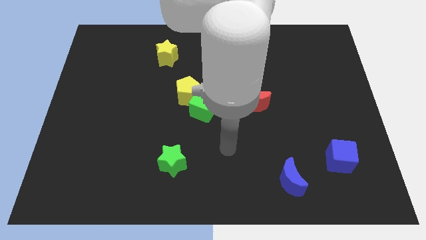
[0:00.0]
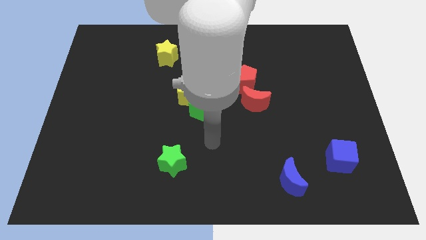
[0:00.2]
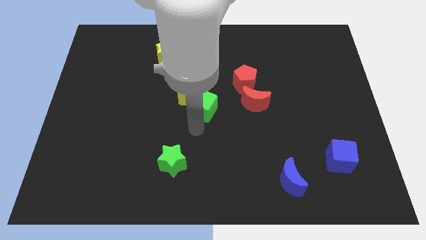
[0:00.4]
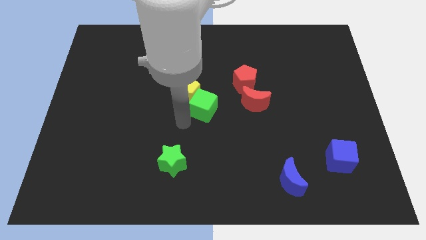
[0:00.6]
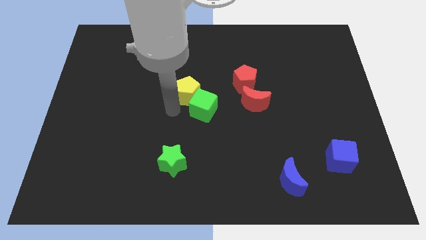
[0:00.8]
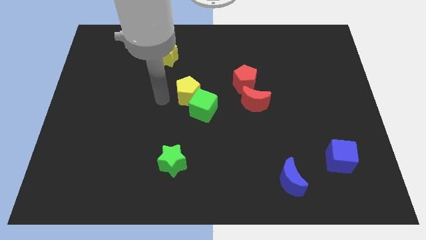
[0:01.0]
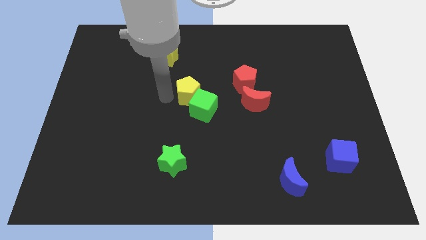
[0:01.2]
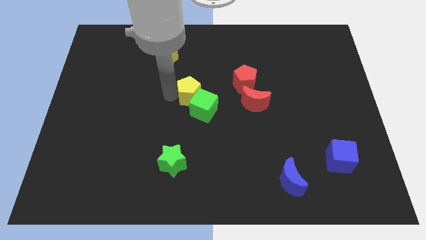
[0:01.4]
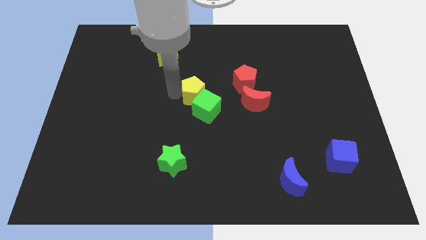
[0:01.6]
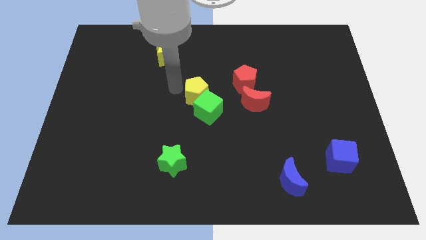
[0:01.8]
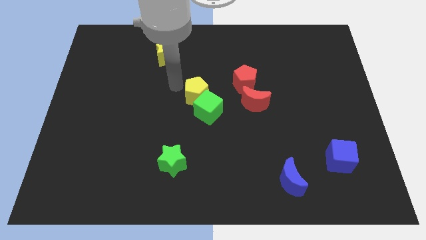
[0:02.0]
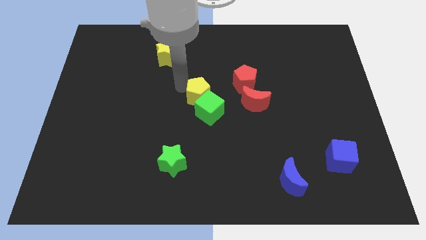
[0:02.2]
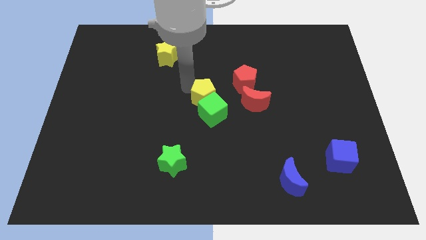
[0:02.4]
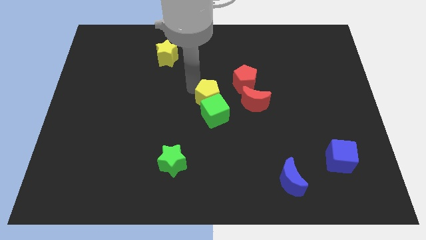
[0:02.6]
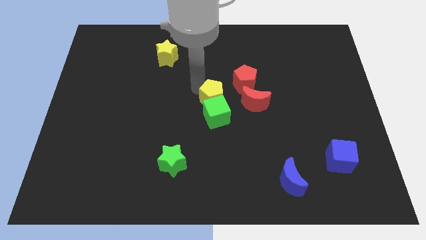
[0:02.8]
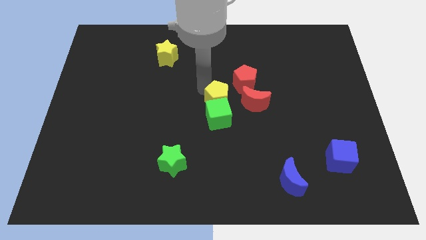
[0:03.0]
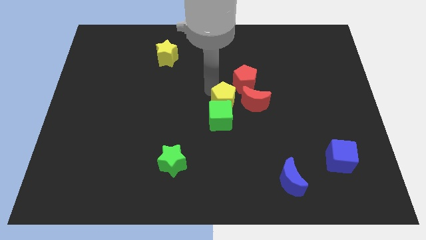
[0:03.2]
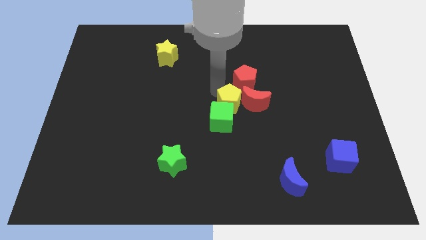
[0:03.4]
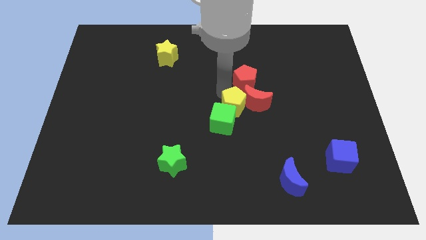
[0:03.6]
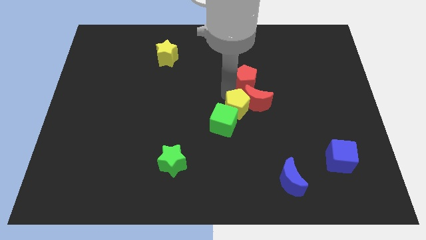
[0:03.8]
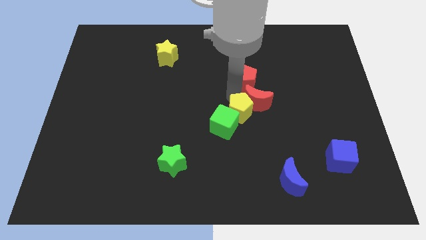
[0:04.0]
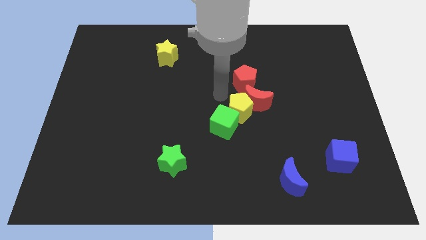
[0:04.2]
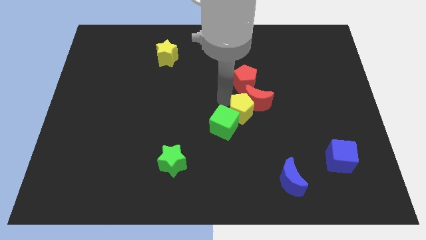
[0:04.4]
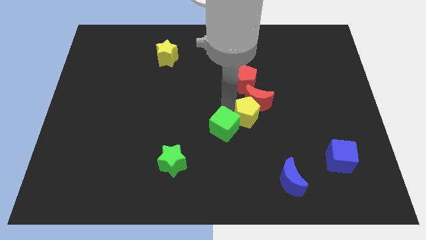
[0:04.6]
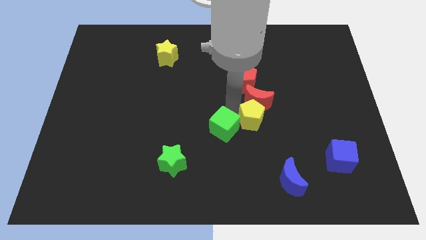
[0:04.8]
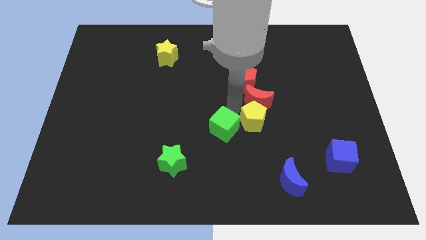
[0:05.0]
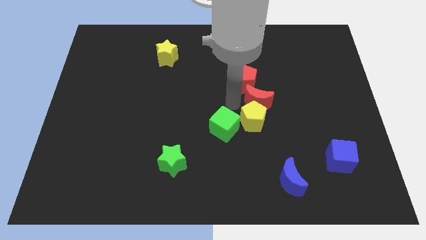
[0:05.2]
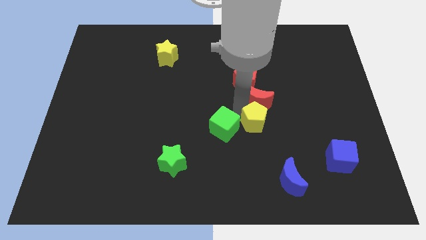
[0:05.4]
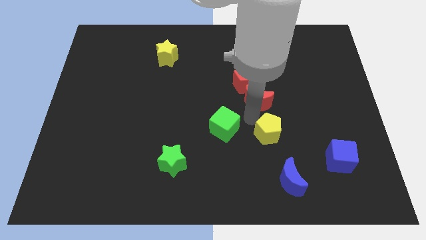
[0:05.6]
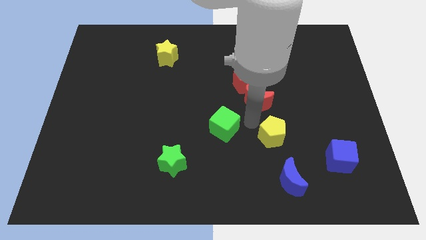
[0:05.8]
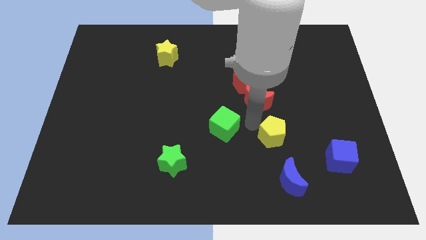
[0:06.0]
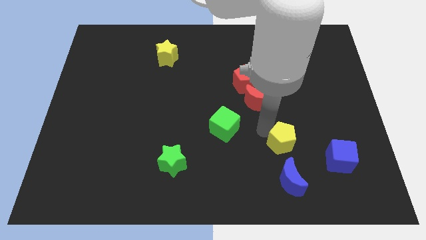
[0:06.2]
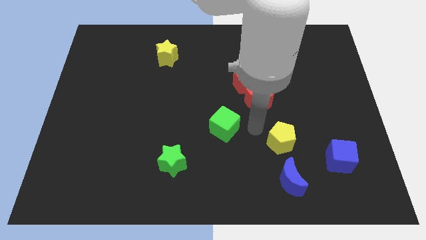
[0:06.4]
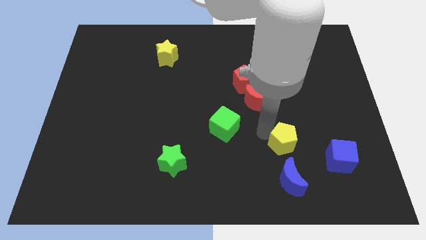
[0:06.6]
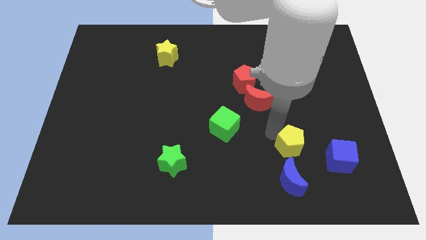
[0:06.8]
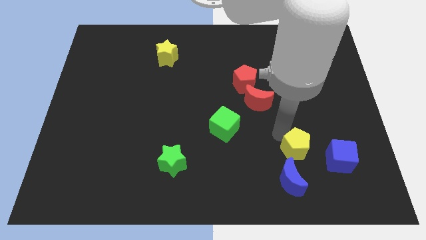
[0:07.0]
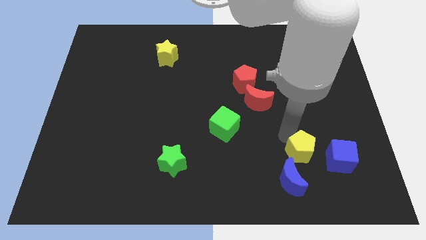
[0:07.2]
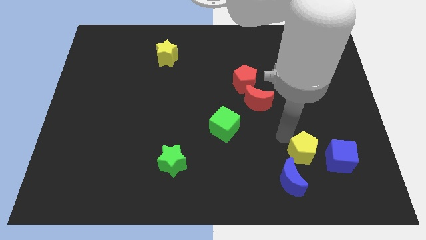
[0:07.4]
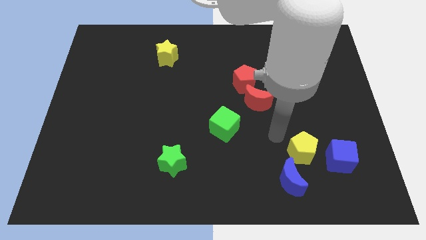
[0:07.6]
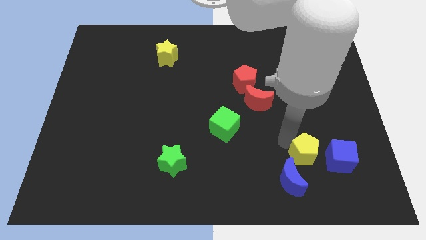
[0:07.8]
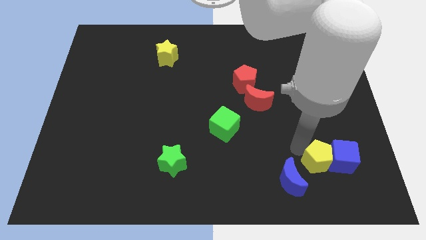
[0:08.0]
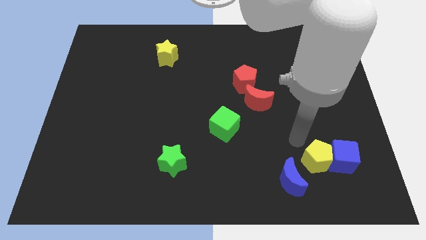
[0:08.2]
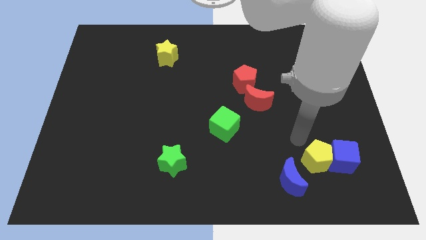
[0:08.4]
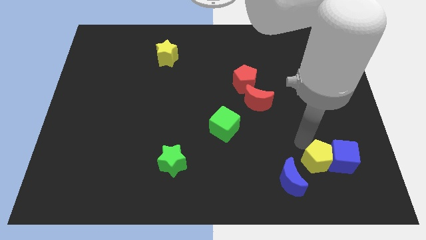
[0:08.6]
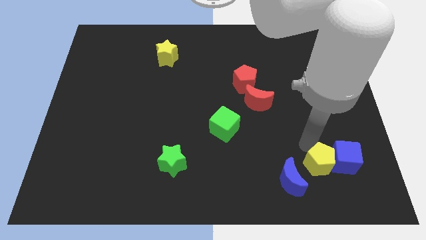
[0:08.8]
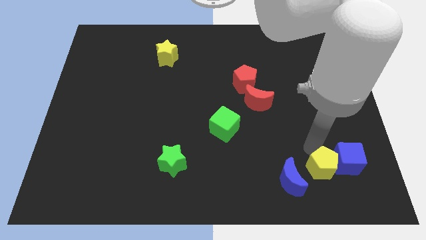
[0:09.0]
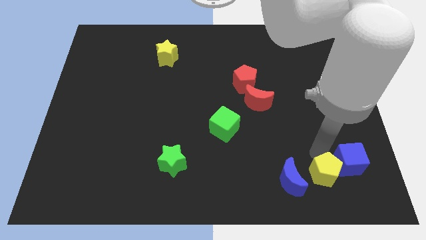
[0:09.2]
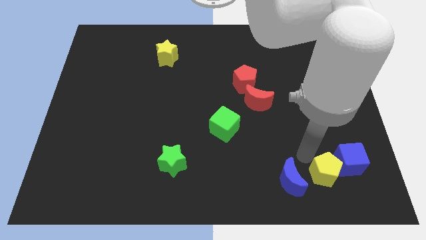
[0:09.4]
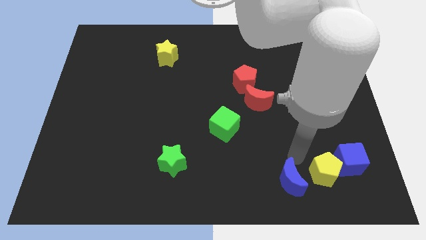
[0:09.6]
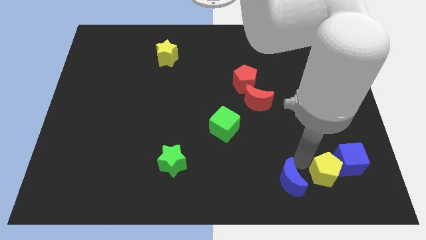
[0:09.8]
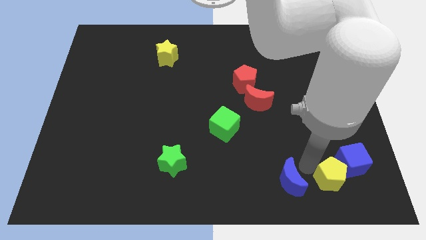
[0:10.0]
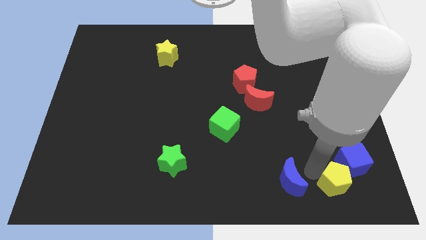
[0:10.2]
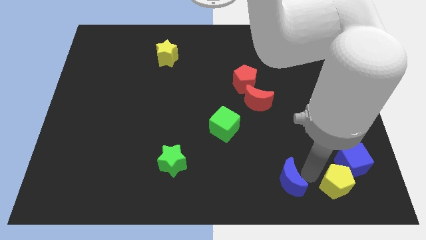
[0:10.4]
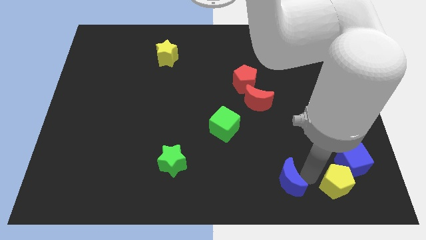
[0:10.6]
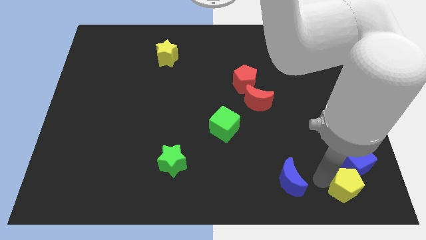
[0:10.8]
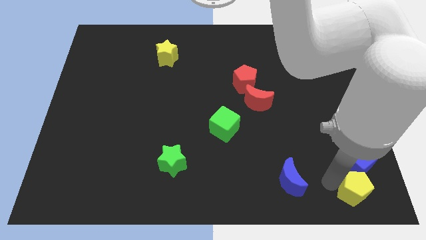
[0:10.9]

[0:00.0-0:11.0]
move the yellow pentagon to the bottom right corner
